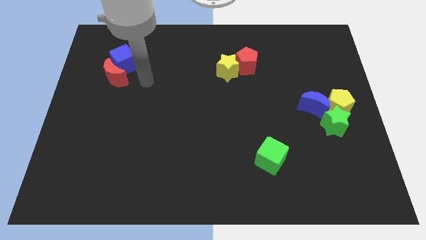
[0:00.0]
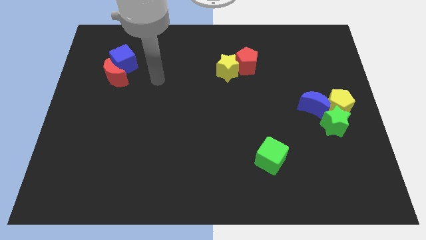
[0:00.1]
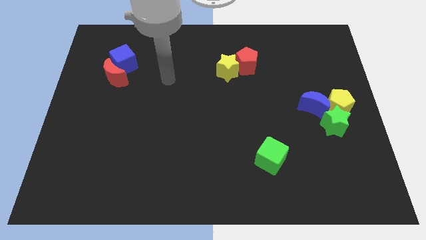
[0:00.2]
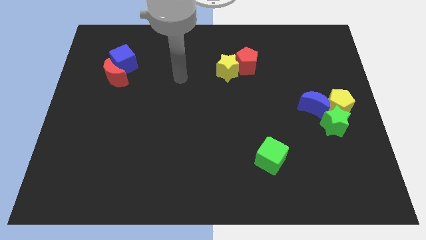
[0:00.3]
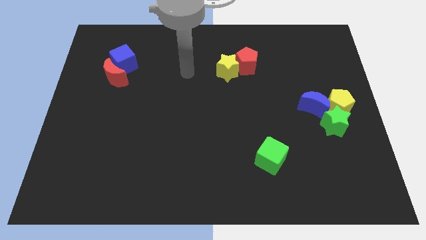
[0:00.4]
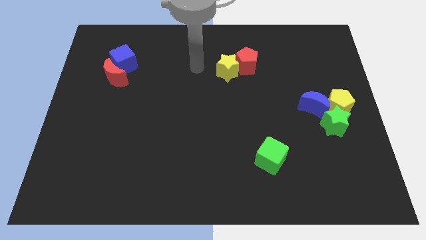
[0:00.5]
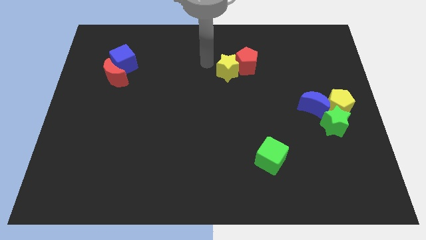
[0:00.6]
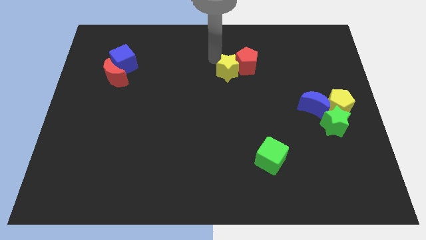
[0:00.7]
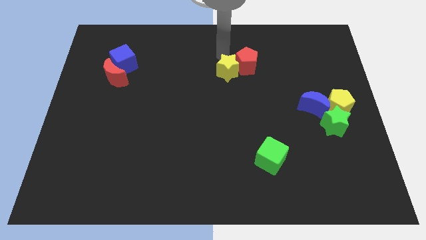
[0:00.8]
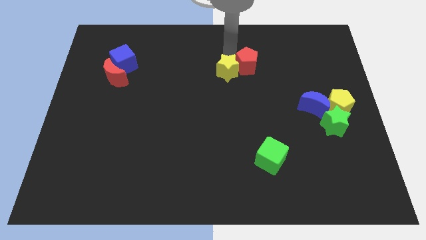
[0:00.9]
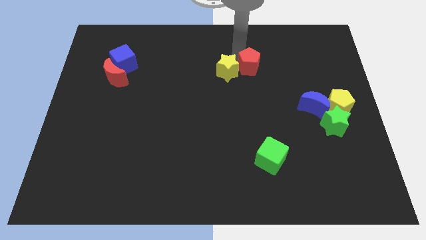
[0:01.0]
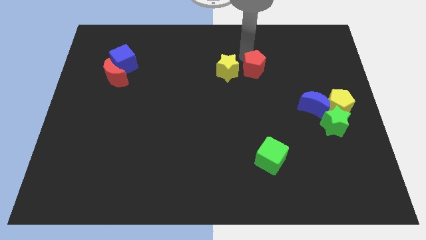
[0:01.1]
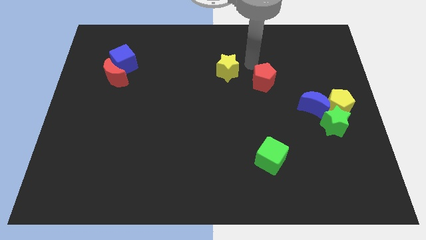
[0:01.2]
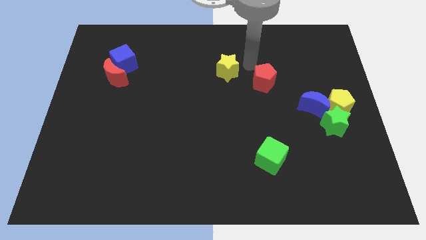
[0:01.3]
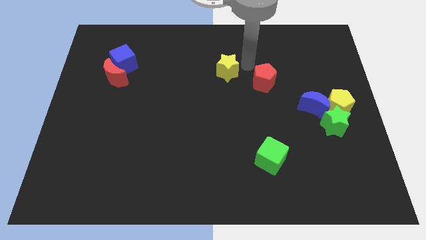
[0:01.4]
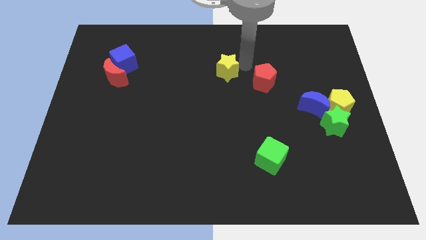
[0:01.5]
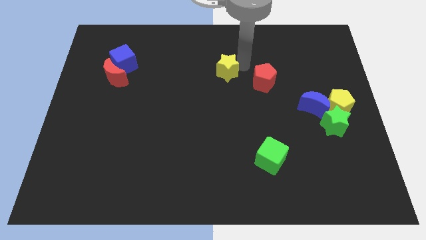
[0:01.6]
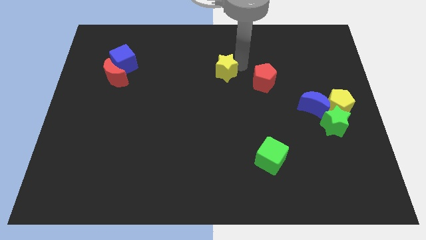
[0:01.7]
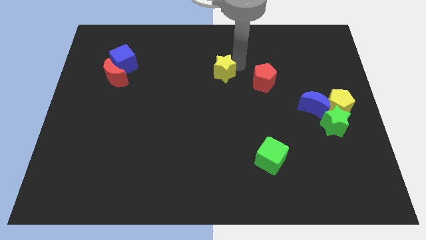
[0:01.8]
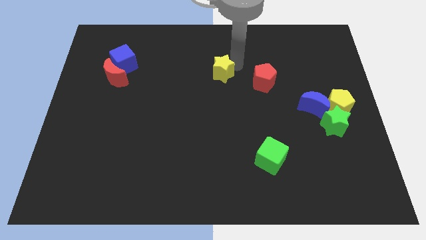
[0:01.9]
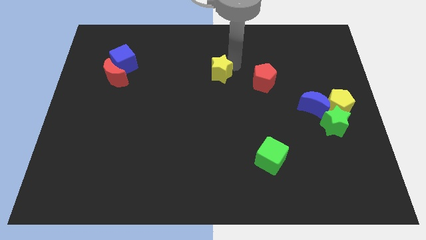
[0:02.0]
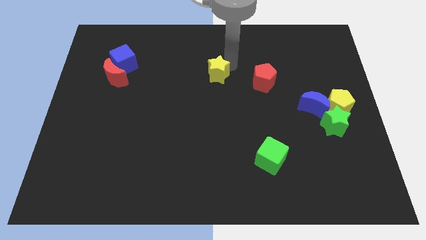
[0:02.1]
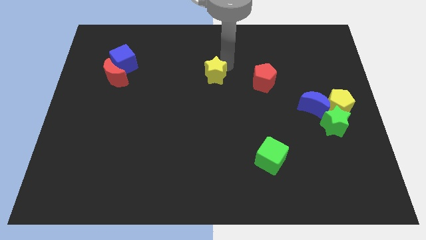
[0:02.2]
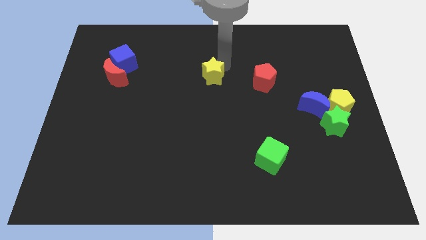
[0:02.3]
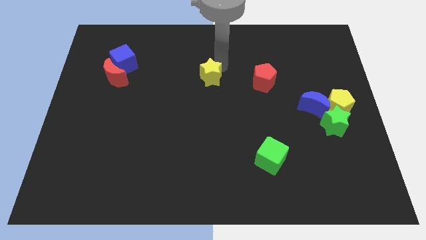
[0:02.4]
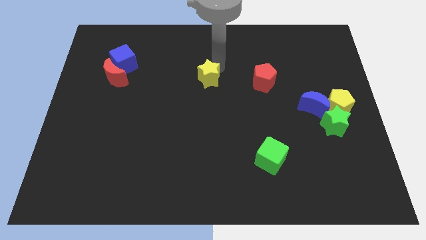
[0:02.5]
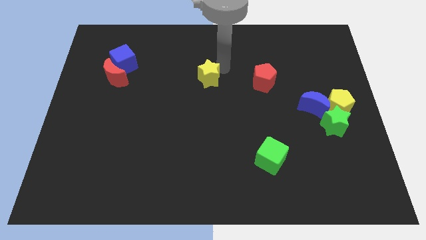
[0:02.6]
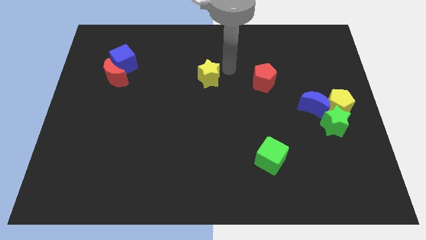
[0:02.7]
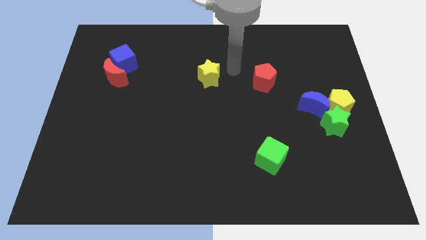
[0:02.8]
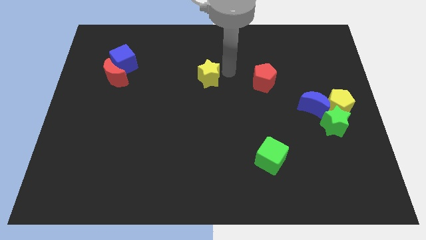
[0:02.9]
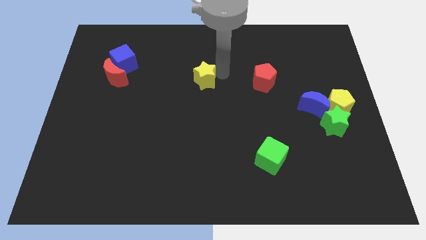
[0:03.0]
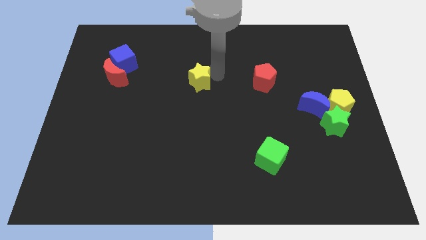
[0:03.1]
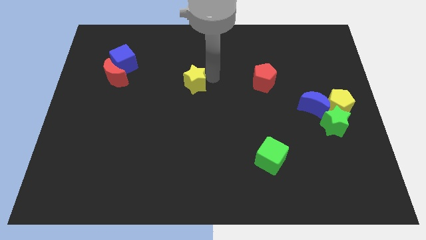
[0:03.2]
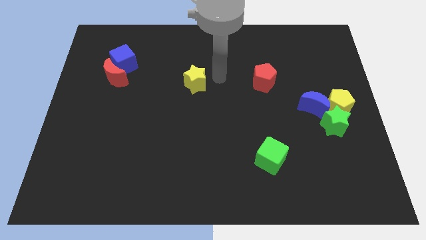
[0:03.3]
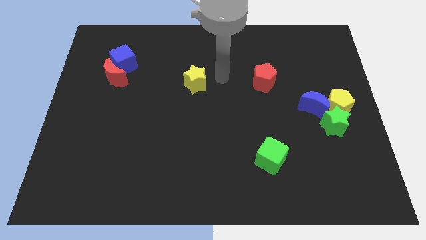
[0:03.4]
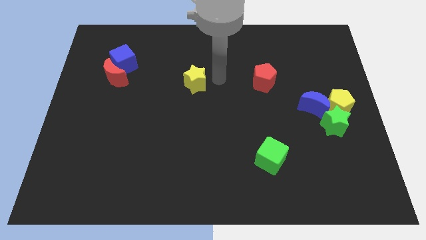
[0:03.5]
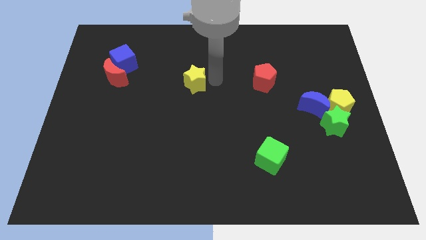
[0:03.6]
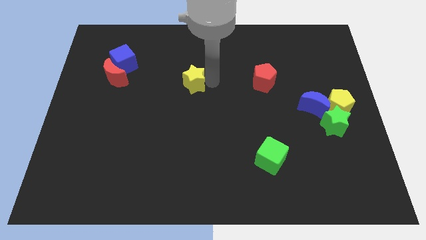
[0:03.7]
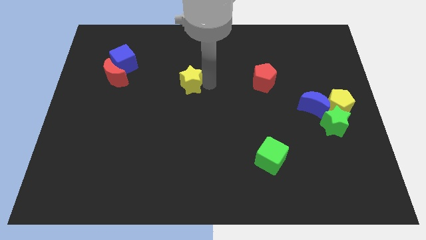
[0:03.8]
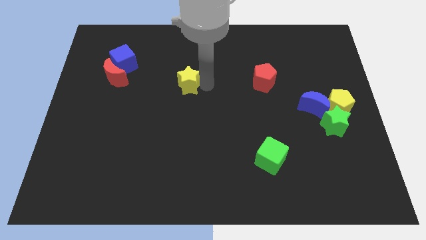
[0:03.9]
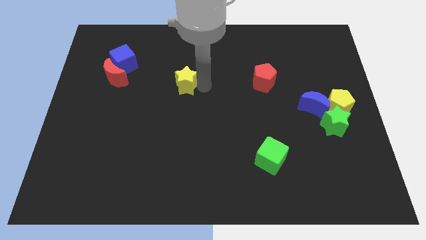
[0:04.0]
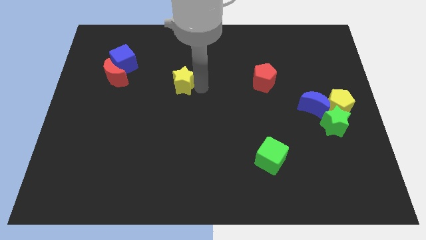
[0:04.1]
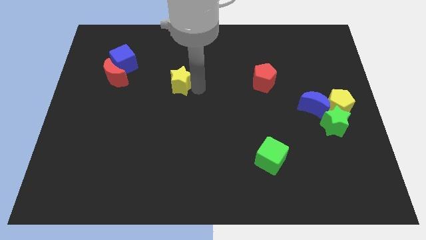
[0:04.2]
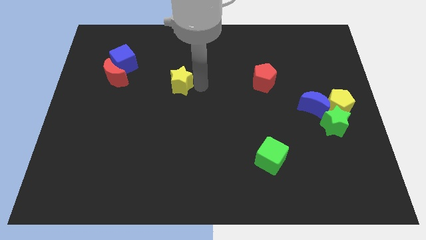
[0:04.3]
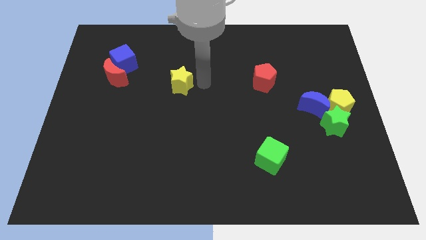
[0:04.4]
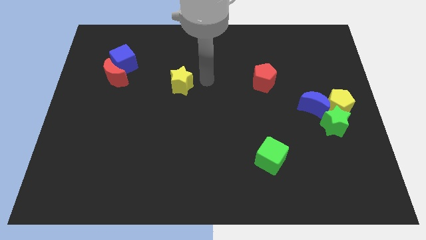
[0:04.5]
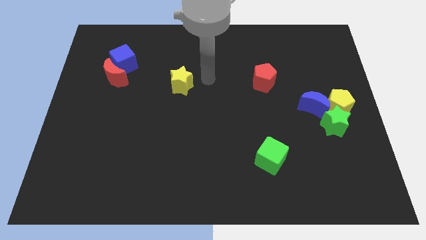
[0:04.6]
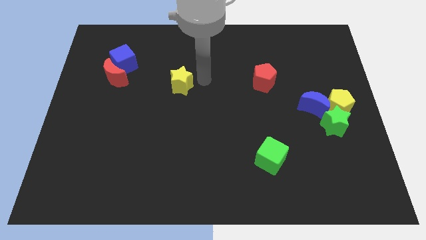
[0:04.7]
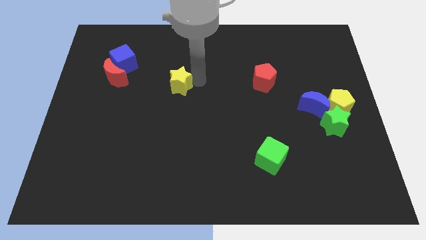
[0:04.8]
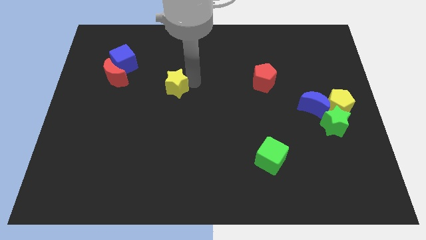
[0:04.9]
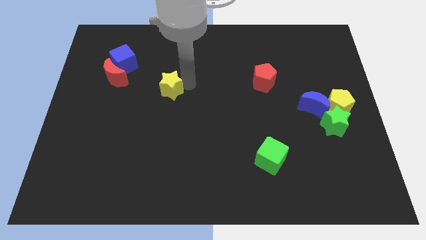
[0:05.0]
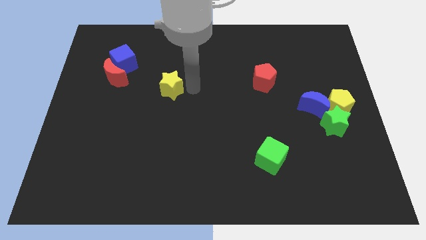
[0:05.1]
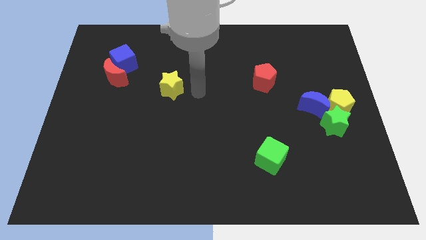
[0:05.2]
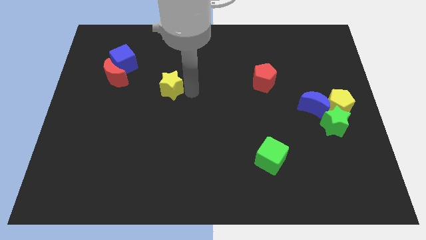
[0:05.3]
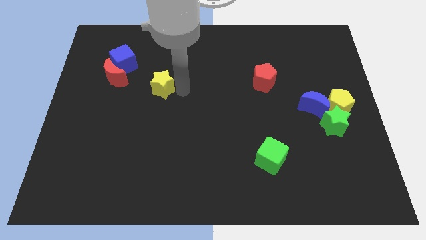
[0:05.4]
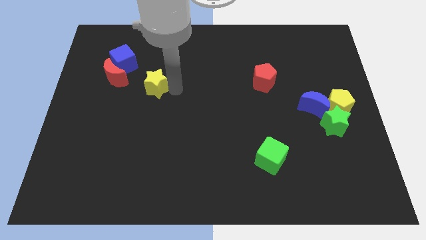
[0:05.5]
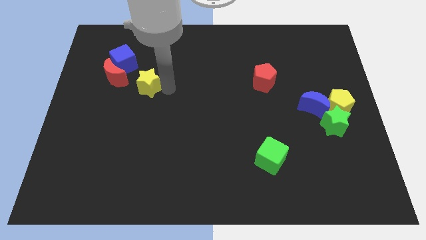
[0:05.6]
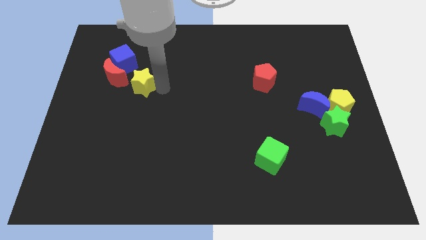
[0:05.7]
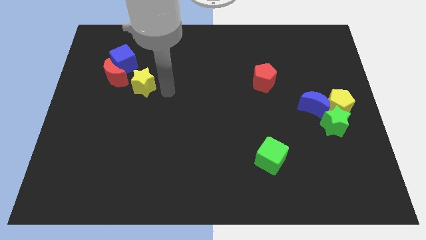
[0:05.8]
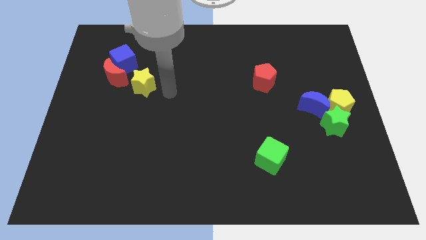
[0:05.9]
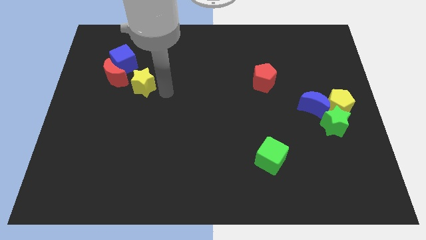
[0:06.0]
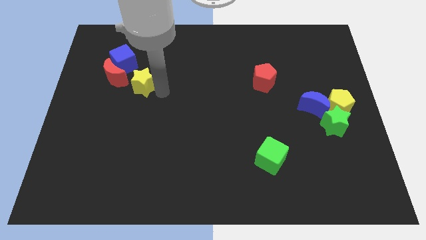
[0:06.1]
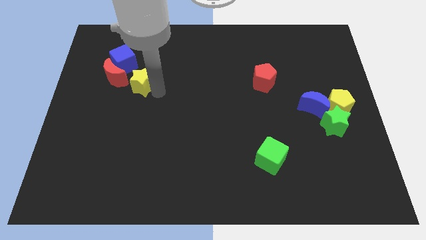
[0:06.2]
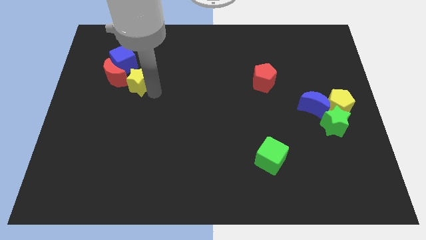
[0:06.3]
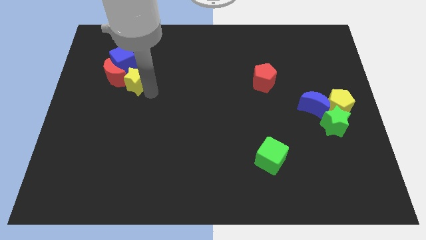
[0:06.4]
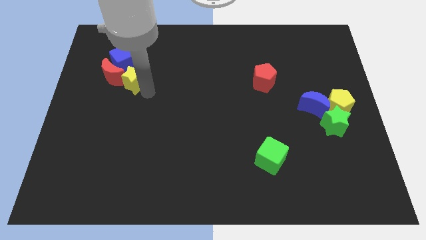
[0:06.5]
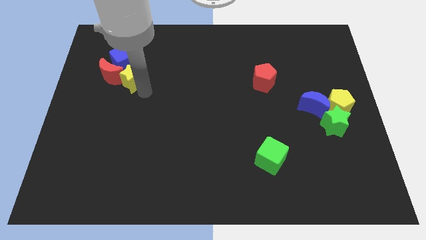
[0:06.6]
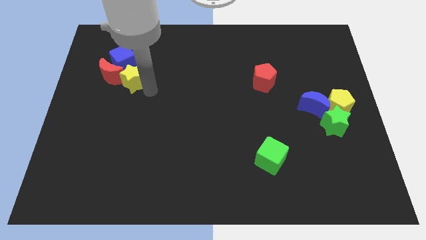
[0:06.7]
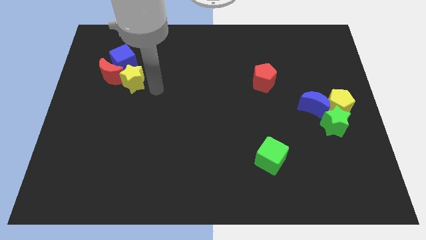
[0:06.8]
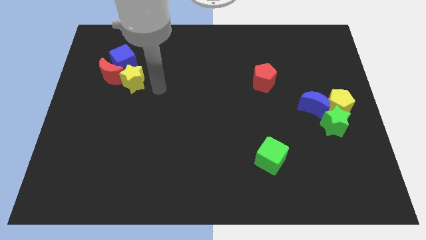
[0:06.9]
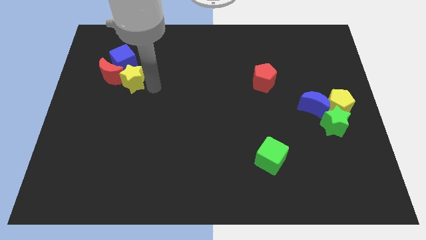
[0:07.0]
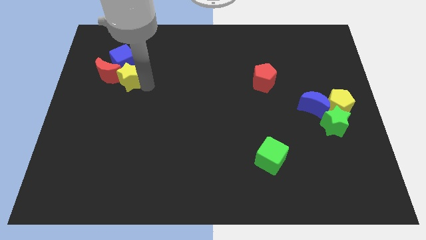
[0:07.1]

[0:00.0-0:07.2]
move the yellow star next to the red moon
